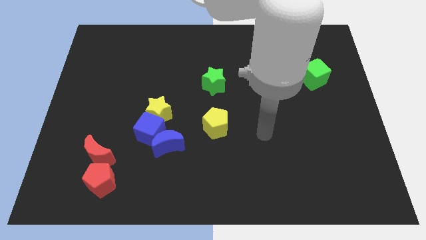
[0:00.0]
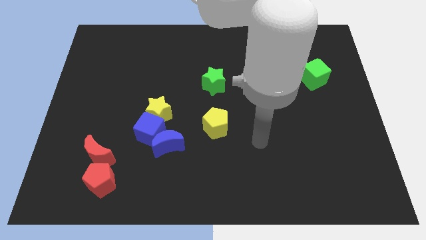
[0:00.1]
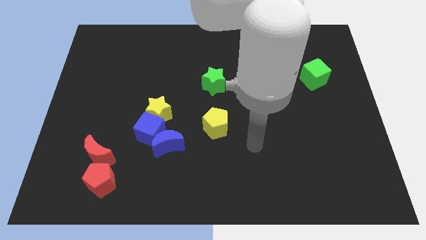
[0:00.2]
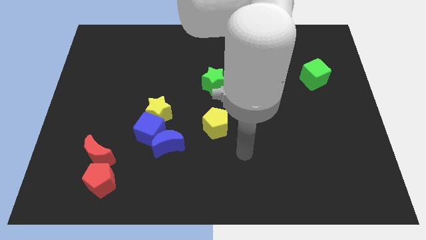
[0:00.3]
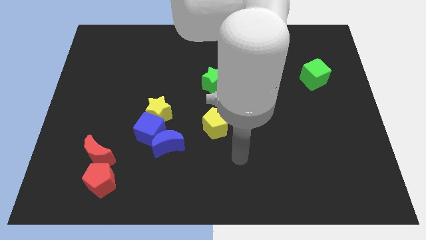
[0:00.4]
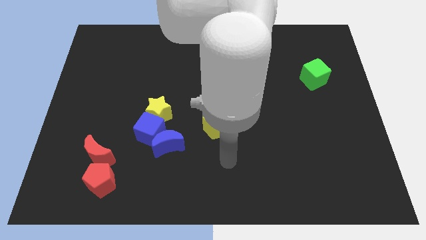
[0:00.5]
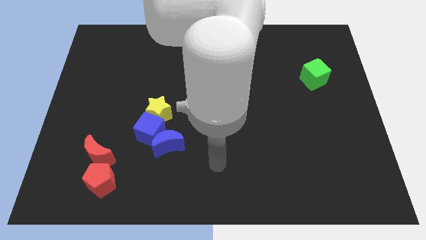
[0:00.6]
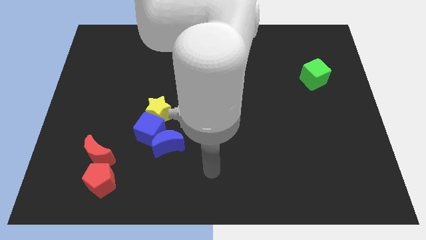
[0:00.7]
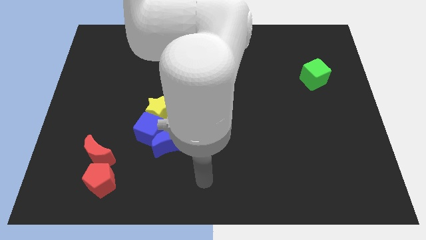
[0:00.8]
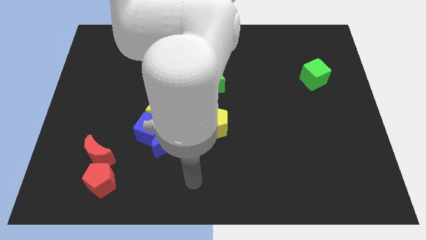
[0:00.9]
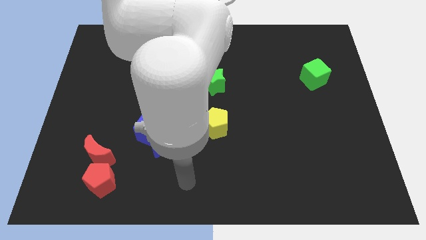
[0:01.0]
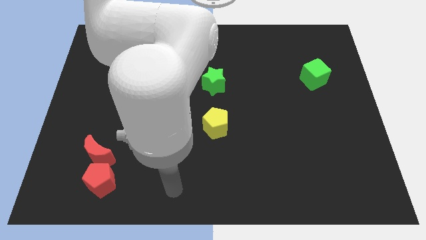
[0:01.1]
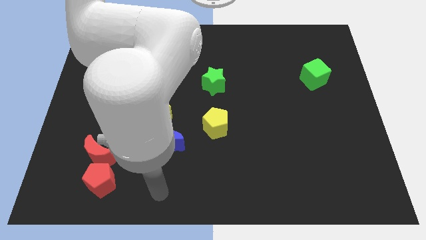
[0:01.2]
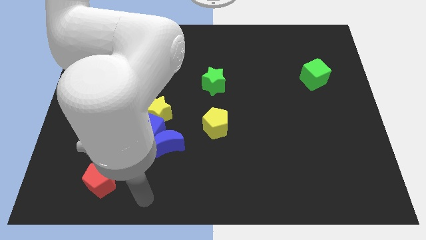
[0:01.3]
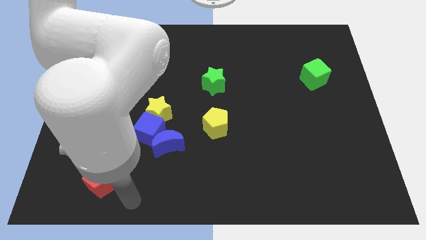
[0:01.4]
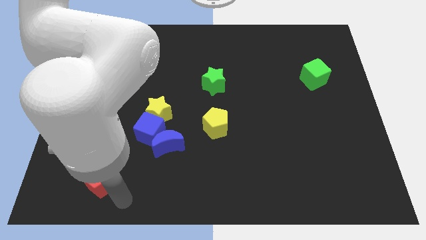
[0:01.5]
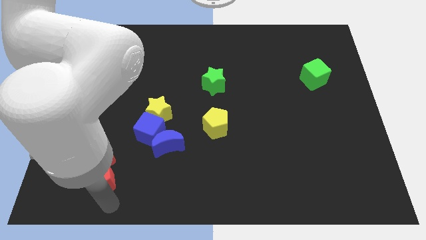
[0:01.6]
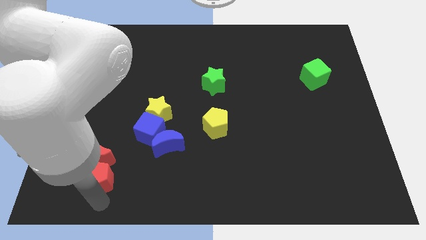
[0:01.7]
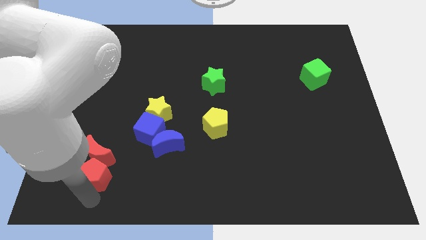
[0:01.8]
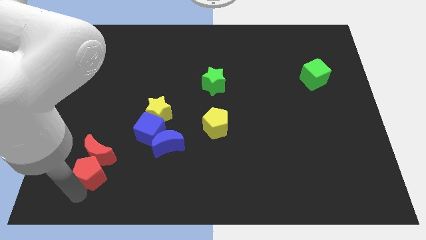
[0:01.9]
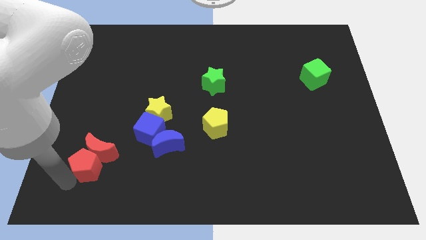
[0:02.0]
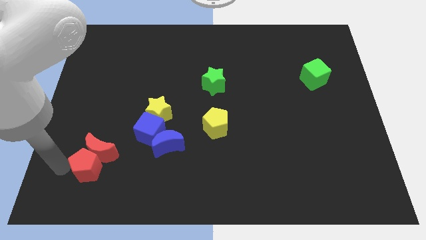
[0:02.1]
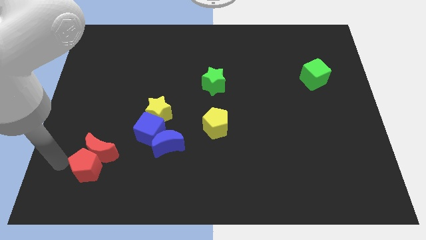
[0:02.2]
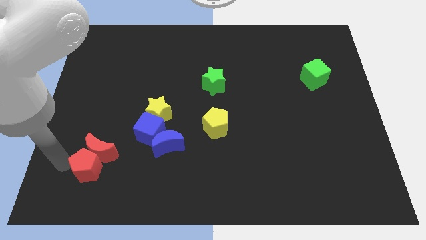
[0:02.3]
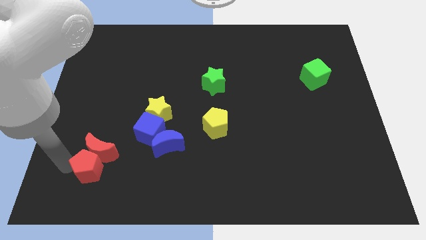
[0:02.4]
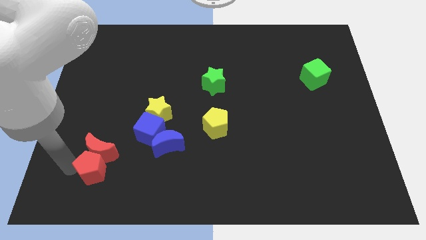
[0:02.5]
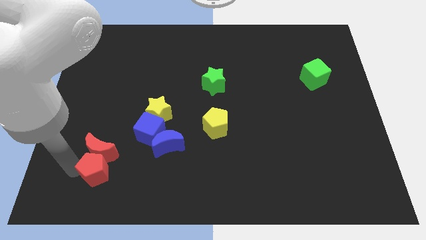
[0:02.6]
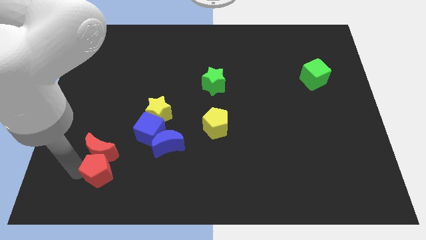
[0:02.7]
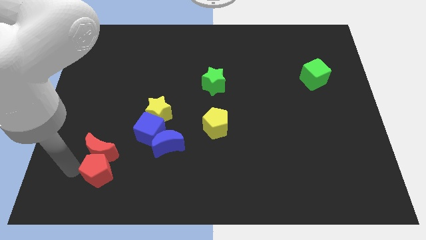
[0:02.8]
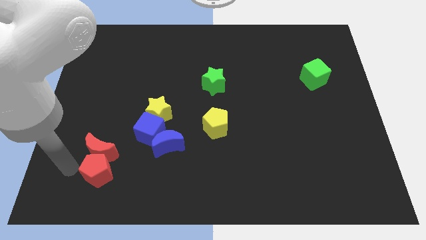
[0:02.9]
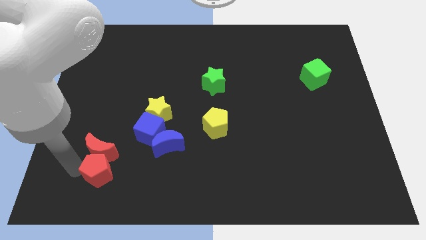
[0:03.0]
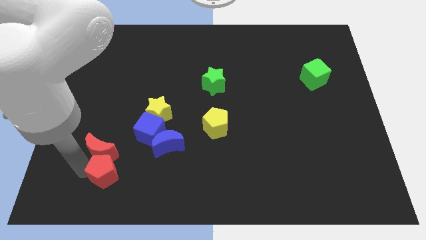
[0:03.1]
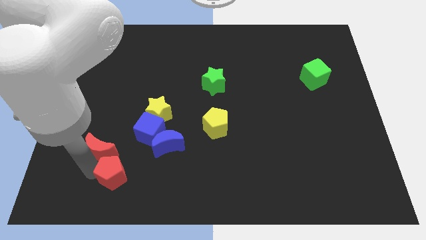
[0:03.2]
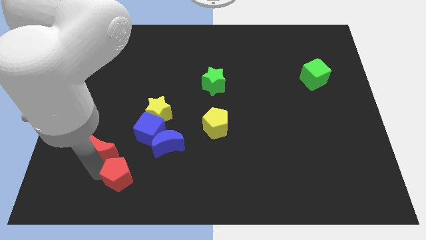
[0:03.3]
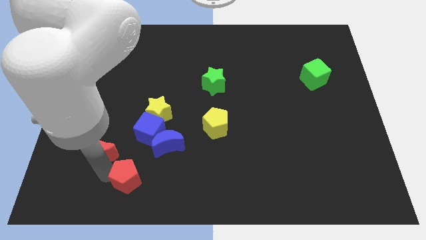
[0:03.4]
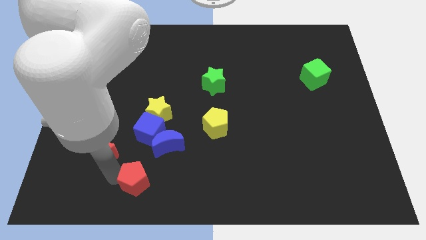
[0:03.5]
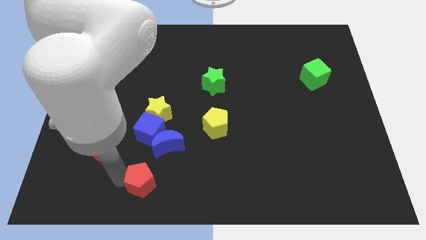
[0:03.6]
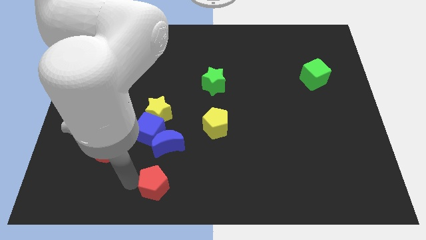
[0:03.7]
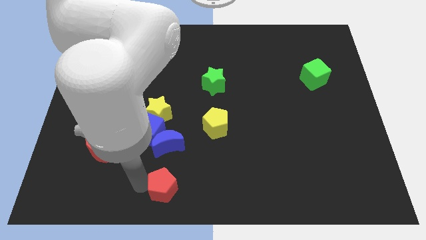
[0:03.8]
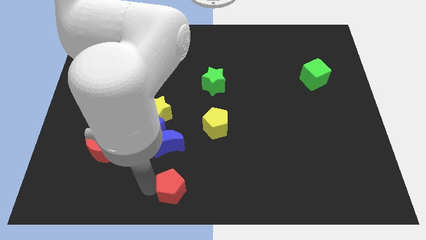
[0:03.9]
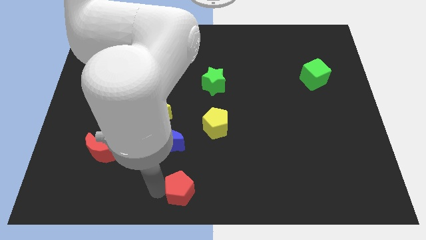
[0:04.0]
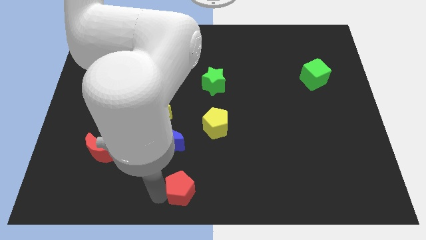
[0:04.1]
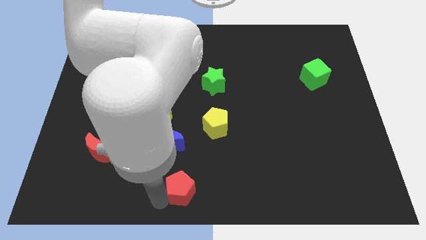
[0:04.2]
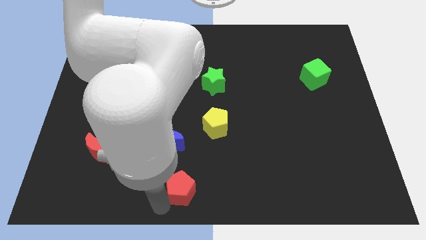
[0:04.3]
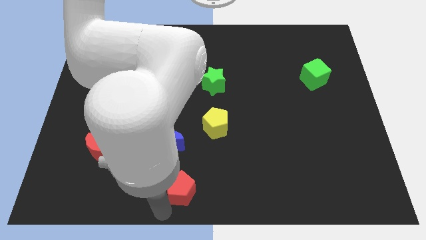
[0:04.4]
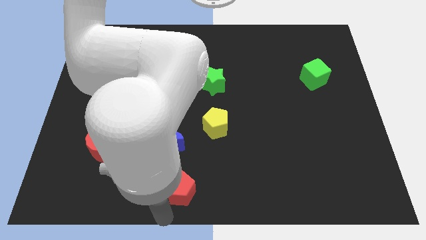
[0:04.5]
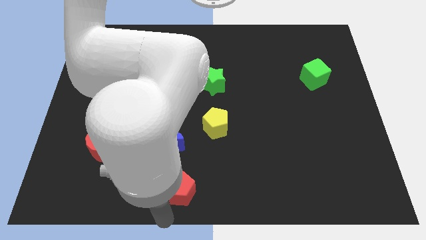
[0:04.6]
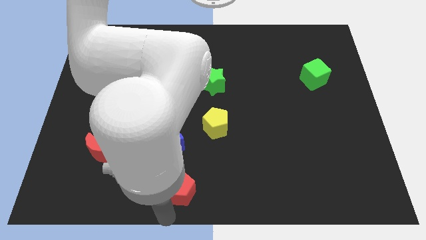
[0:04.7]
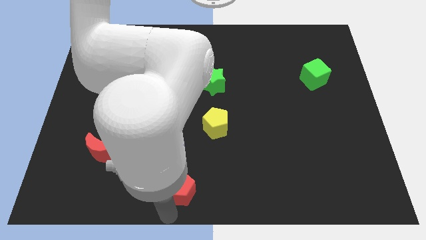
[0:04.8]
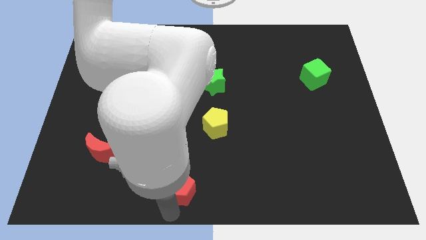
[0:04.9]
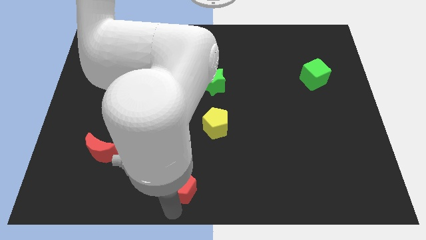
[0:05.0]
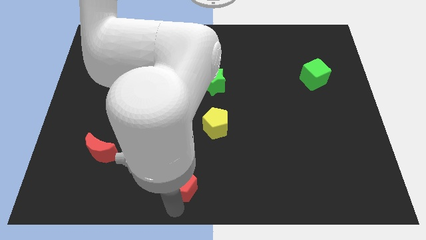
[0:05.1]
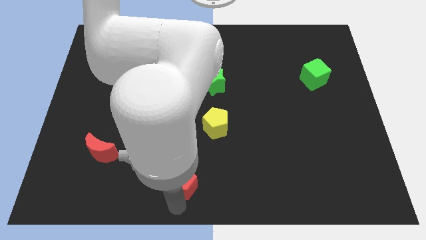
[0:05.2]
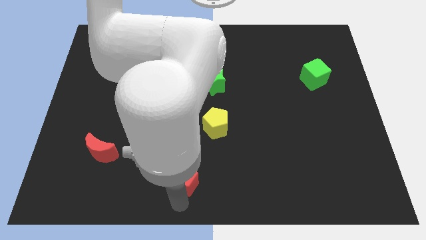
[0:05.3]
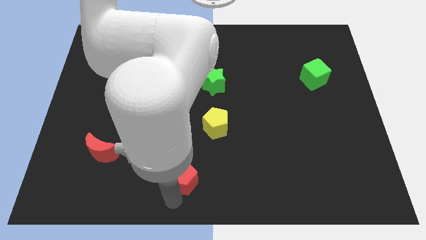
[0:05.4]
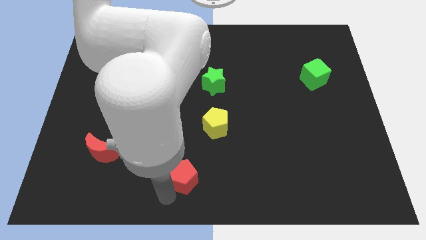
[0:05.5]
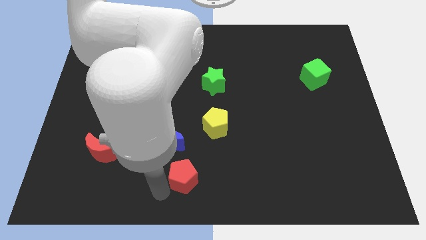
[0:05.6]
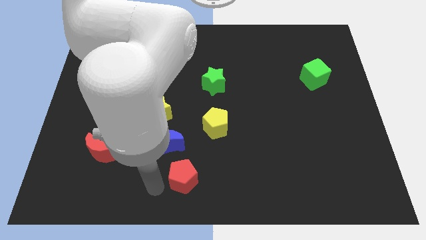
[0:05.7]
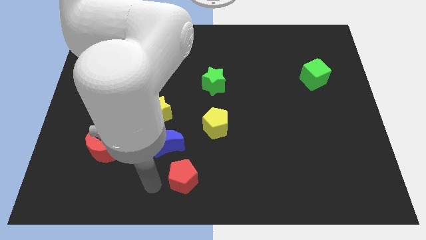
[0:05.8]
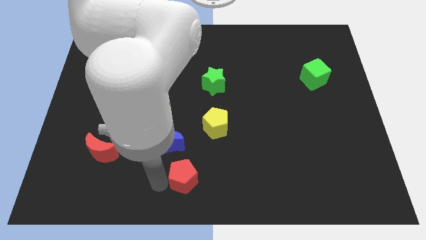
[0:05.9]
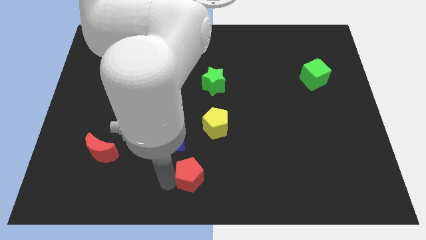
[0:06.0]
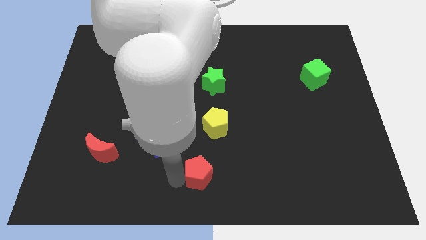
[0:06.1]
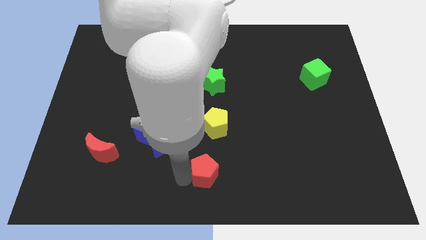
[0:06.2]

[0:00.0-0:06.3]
slide the red pentagon to the right

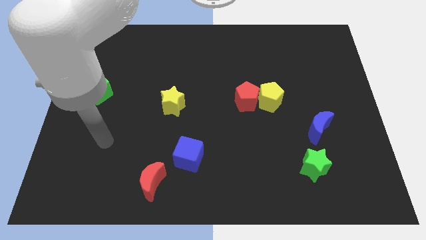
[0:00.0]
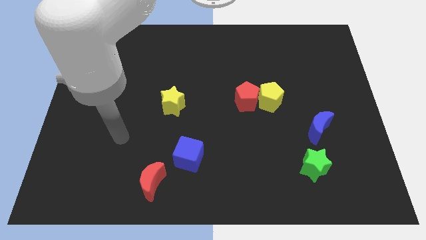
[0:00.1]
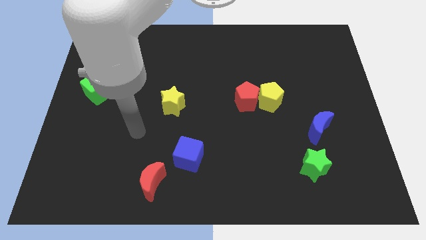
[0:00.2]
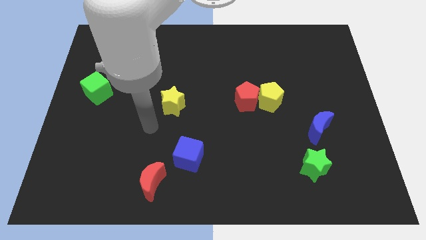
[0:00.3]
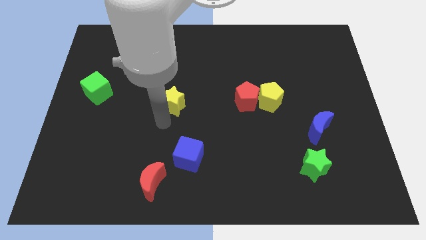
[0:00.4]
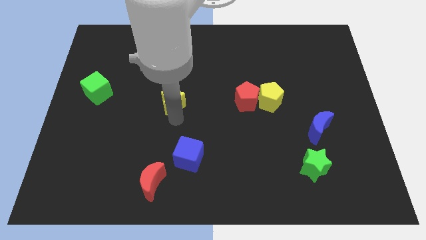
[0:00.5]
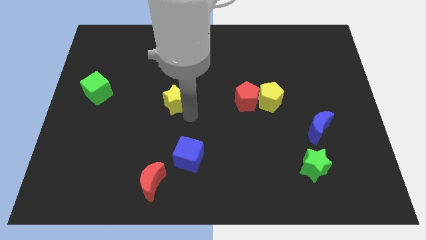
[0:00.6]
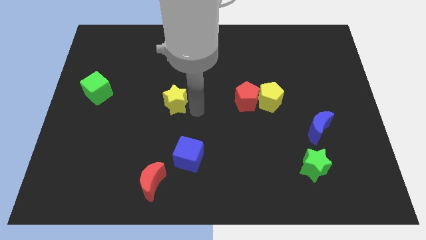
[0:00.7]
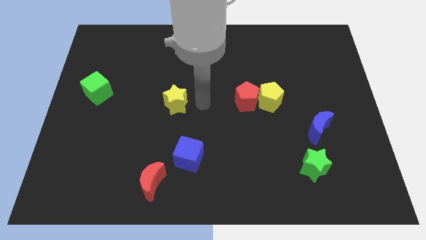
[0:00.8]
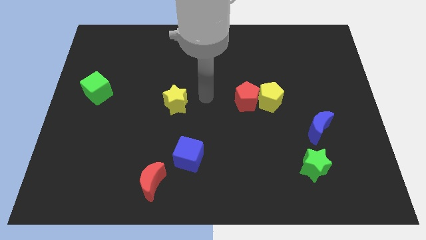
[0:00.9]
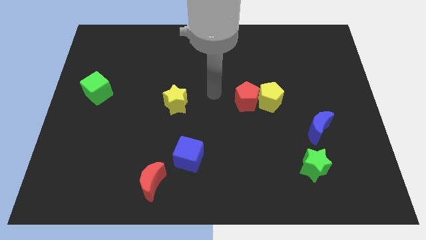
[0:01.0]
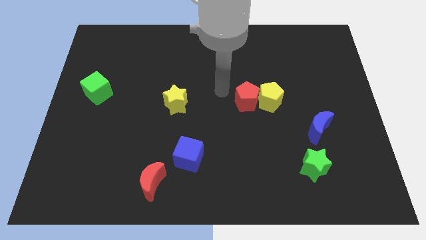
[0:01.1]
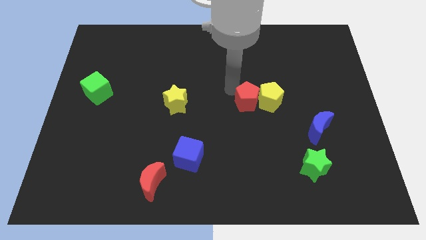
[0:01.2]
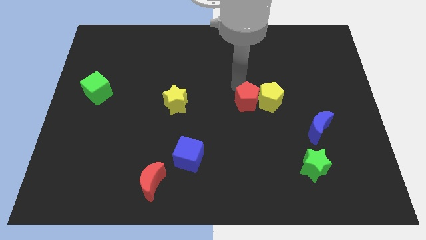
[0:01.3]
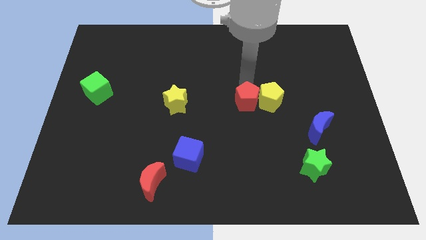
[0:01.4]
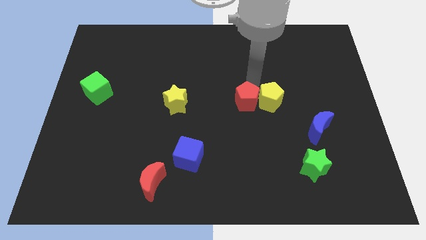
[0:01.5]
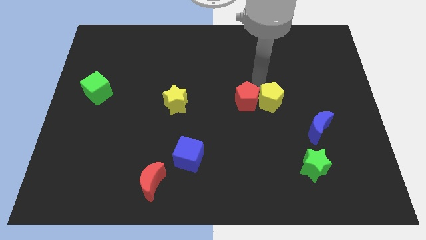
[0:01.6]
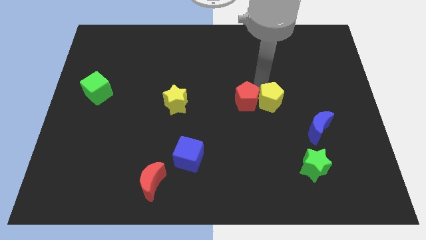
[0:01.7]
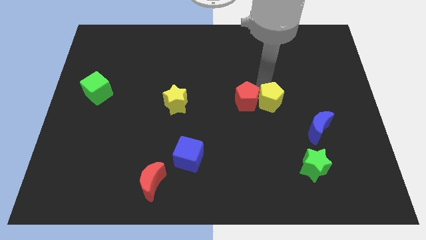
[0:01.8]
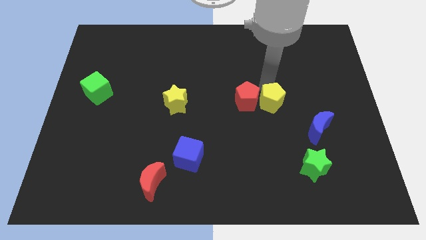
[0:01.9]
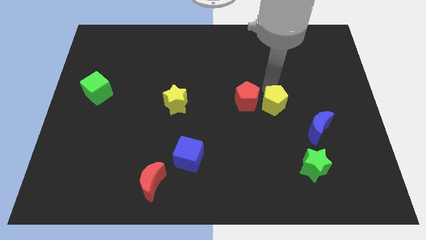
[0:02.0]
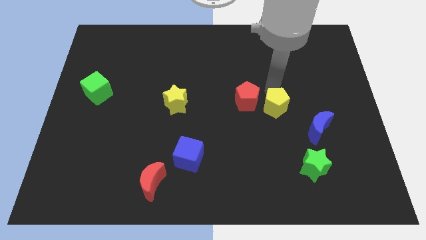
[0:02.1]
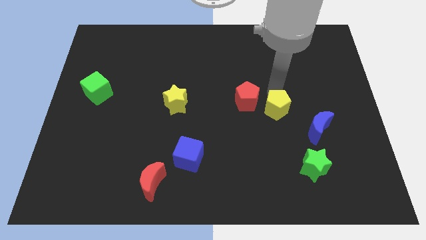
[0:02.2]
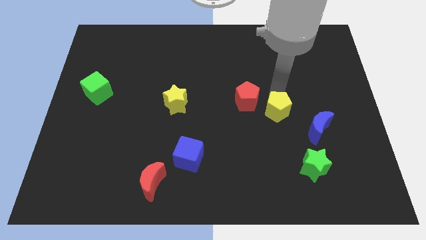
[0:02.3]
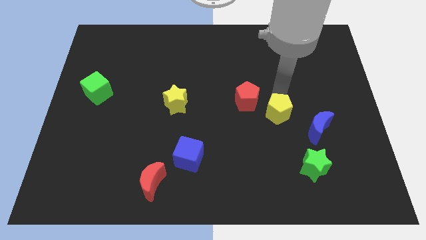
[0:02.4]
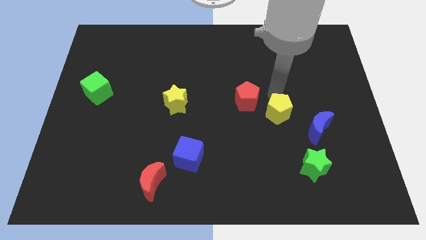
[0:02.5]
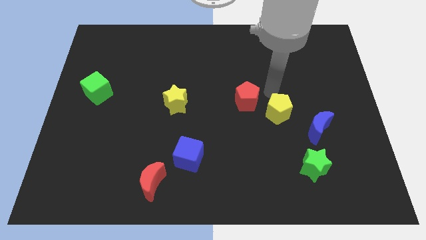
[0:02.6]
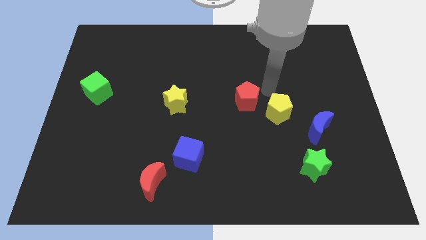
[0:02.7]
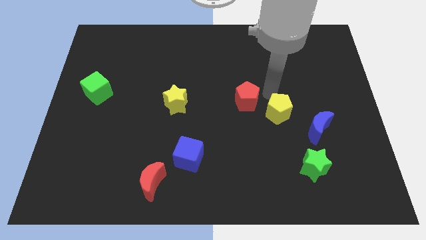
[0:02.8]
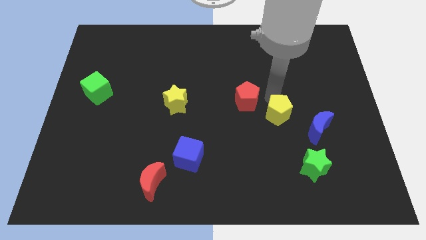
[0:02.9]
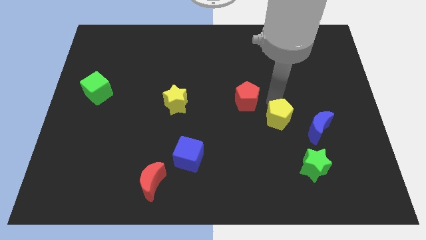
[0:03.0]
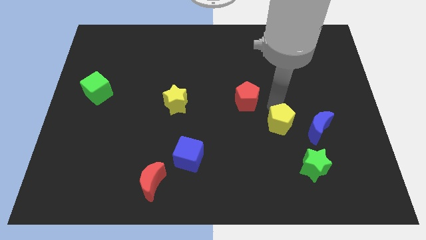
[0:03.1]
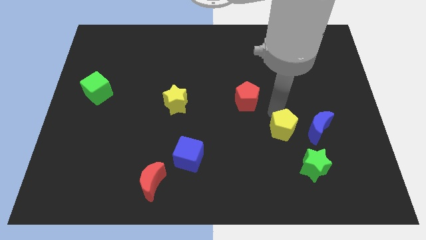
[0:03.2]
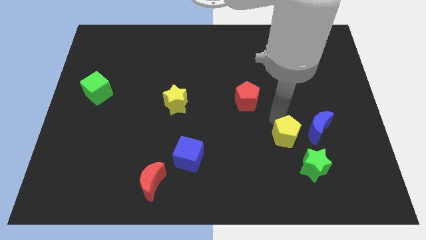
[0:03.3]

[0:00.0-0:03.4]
slide the yellow pentagon slightly downwards and then to the right
